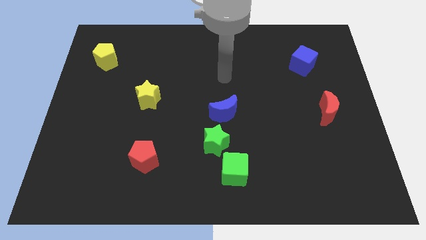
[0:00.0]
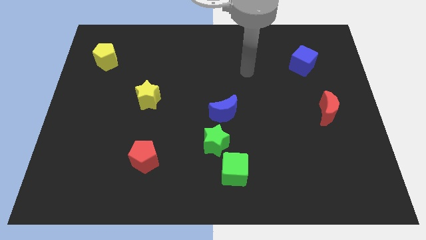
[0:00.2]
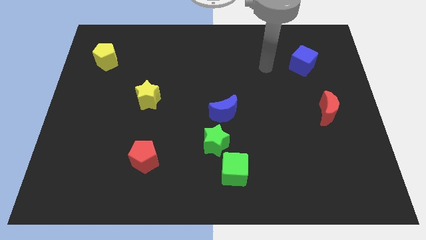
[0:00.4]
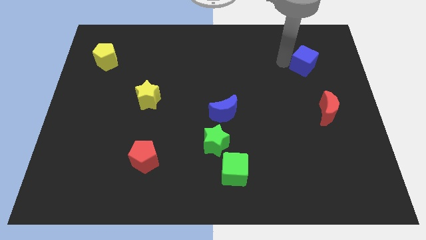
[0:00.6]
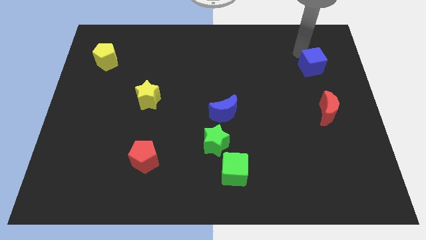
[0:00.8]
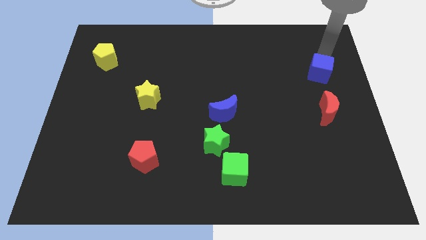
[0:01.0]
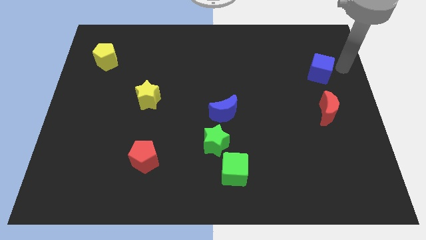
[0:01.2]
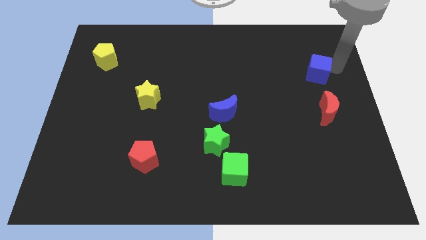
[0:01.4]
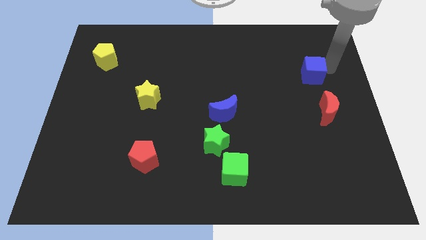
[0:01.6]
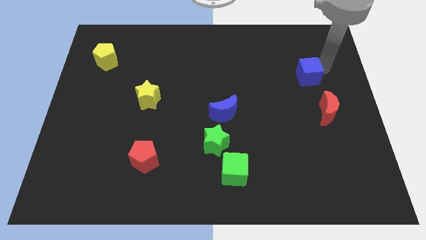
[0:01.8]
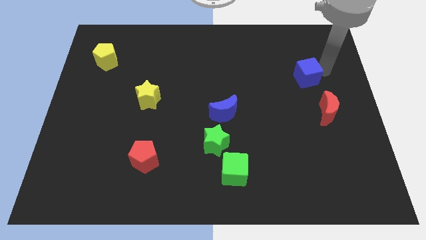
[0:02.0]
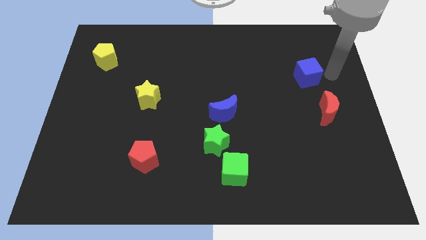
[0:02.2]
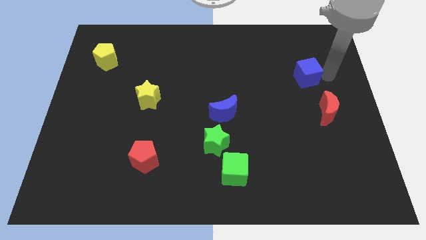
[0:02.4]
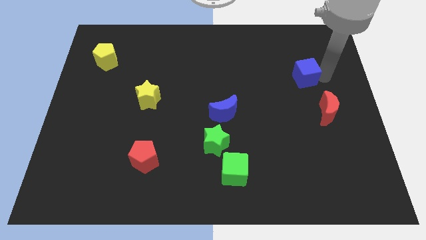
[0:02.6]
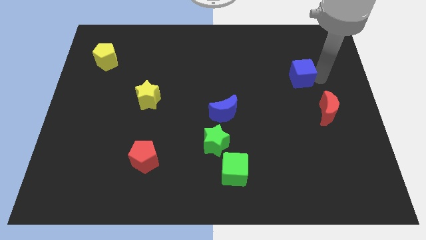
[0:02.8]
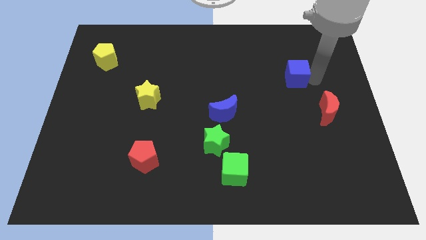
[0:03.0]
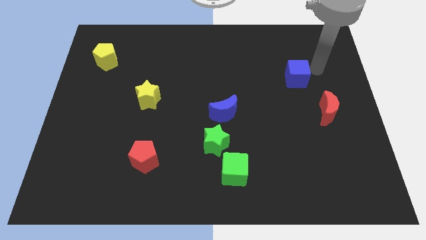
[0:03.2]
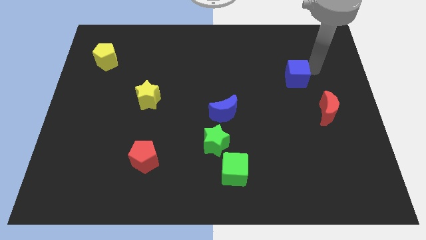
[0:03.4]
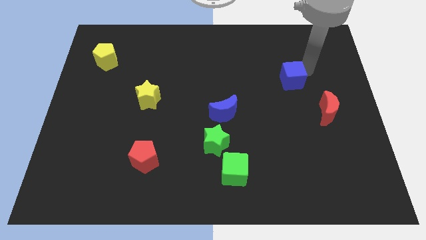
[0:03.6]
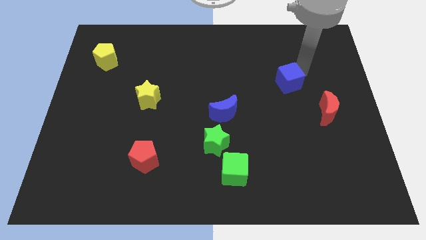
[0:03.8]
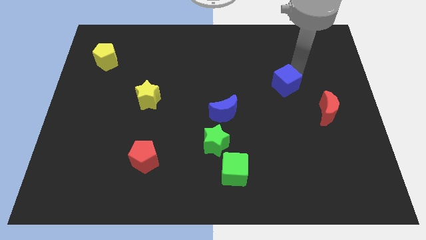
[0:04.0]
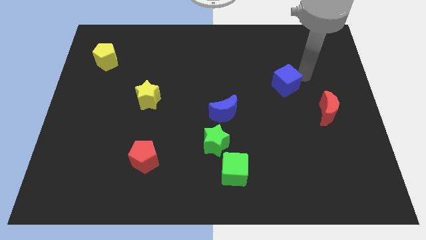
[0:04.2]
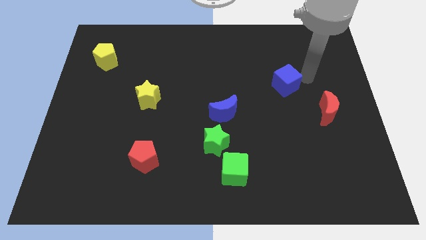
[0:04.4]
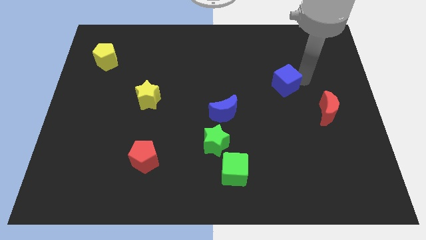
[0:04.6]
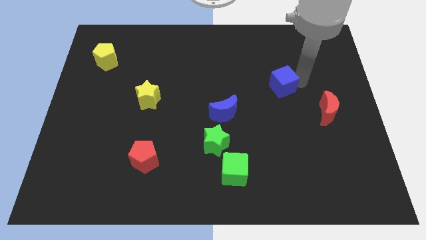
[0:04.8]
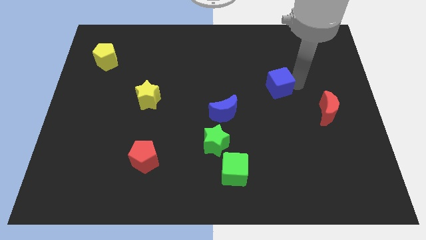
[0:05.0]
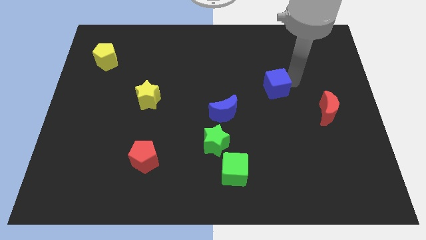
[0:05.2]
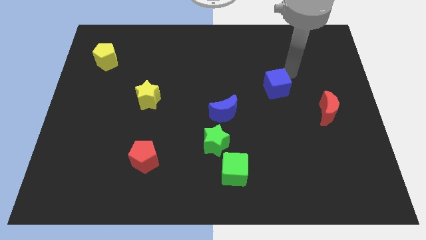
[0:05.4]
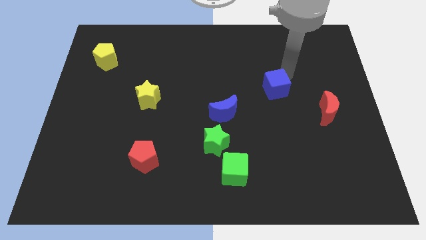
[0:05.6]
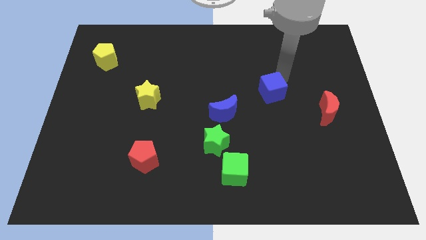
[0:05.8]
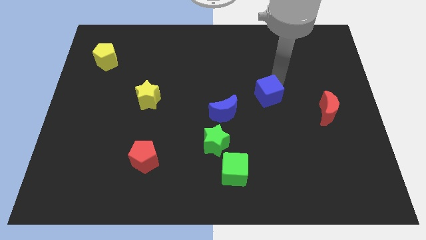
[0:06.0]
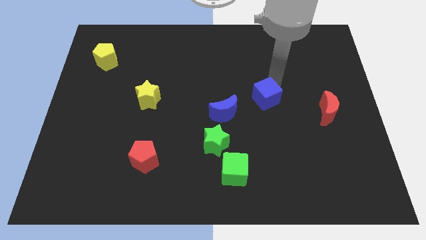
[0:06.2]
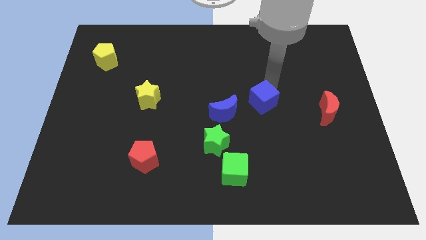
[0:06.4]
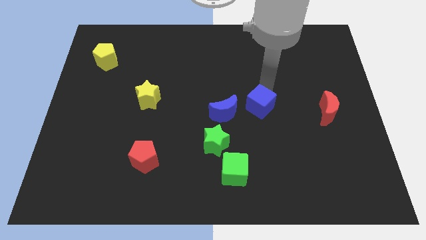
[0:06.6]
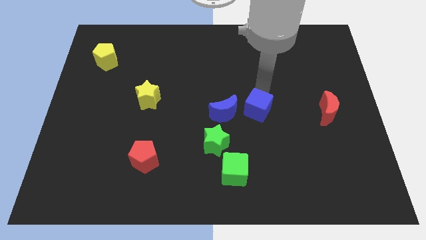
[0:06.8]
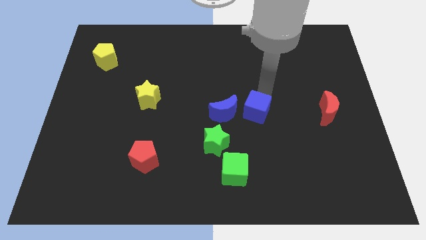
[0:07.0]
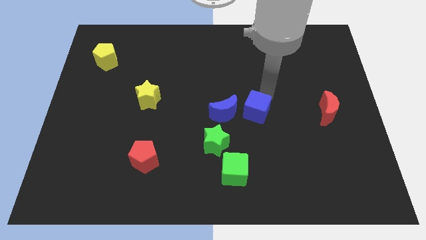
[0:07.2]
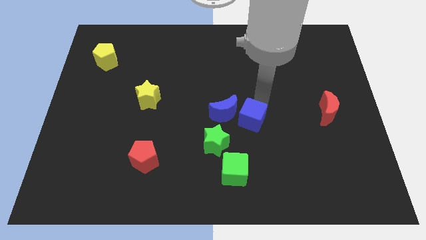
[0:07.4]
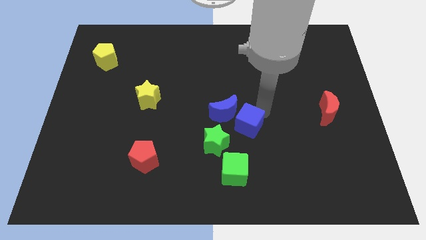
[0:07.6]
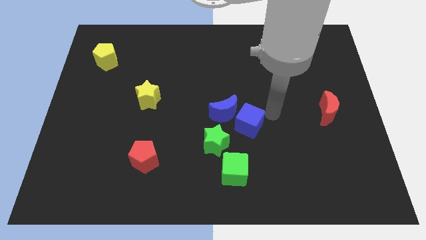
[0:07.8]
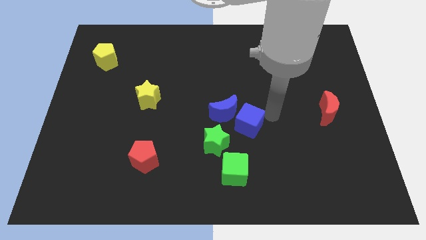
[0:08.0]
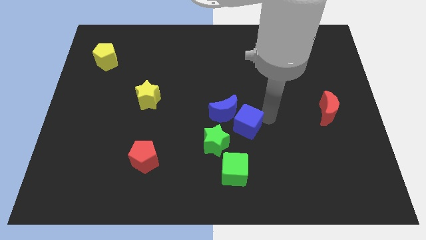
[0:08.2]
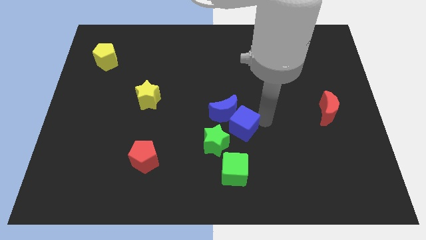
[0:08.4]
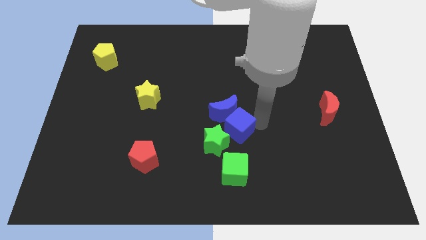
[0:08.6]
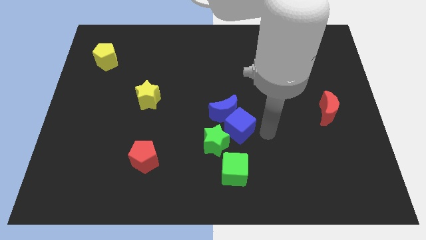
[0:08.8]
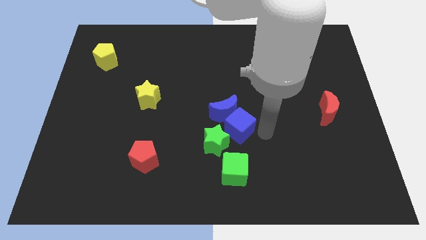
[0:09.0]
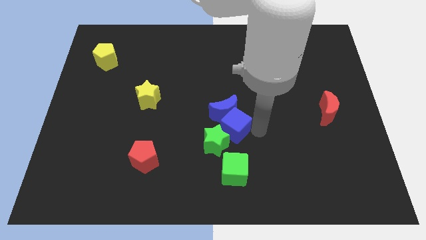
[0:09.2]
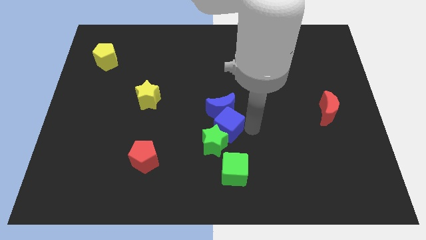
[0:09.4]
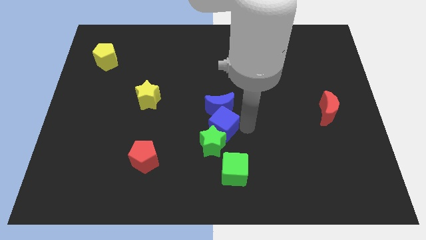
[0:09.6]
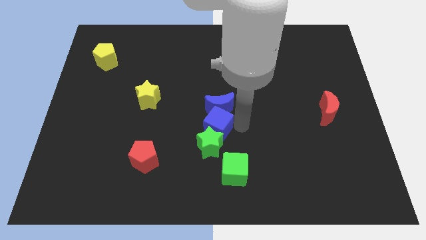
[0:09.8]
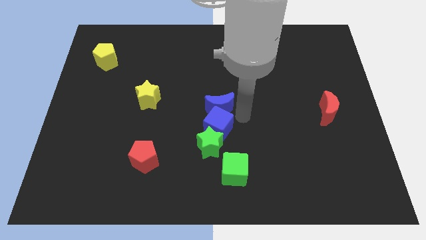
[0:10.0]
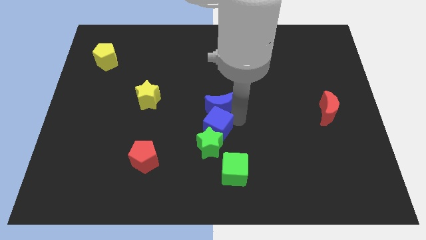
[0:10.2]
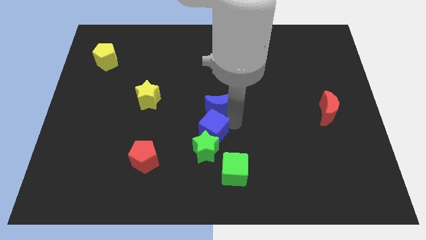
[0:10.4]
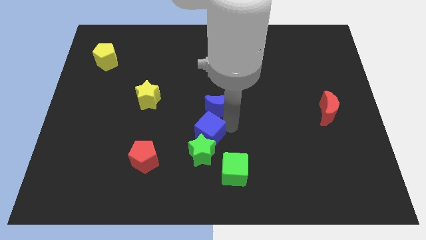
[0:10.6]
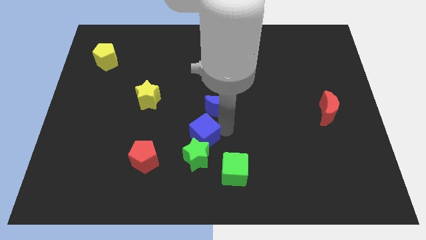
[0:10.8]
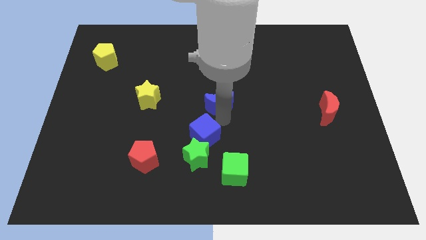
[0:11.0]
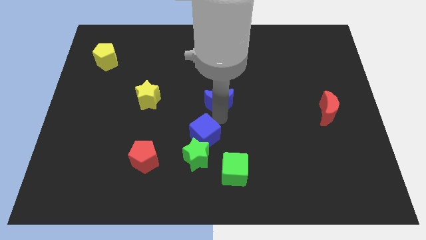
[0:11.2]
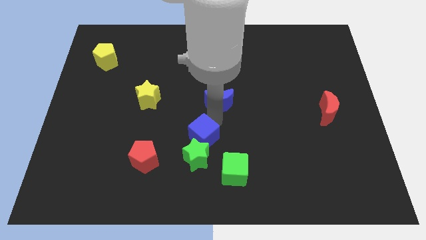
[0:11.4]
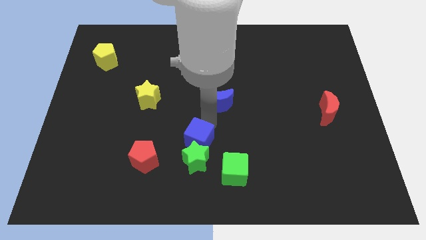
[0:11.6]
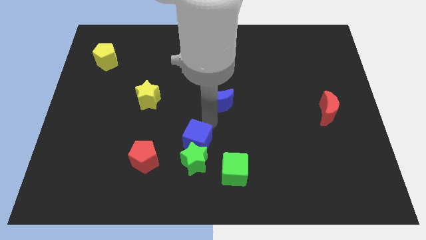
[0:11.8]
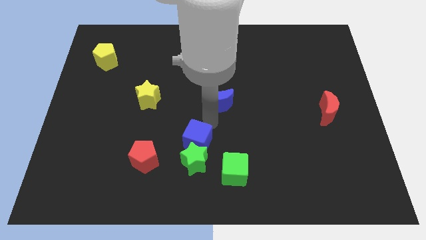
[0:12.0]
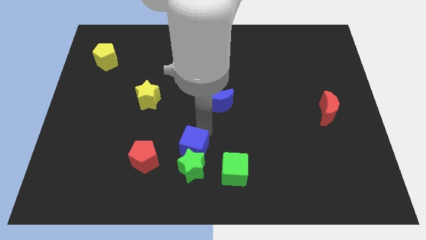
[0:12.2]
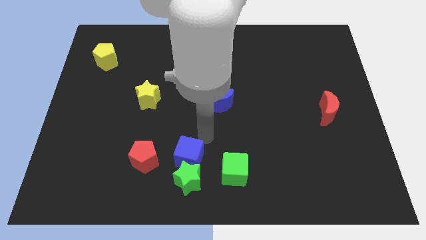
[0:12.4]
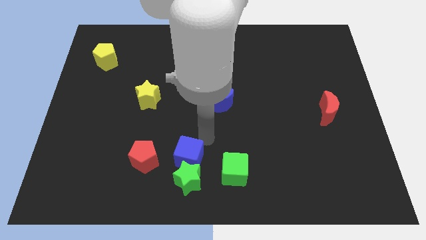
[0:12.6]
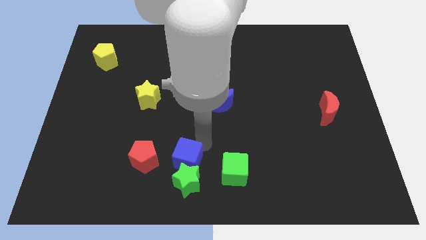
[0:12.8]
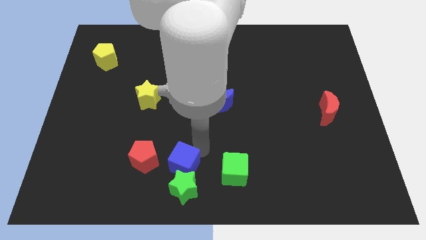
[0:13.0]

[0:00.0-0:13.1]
put the blue cube to the bottom right of the red pentagon
